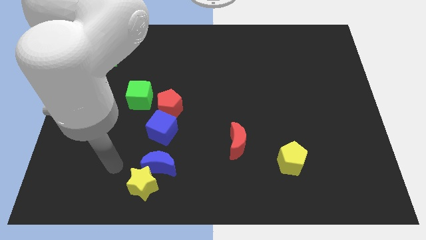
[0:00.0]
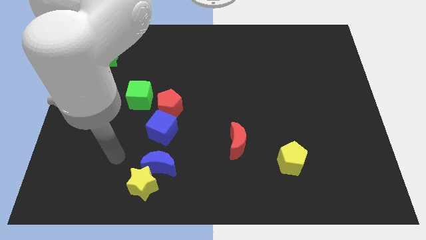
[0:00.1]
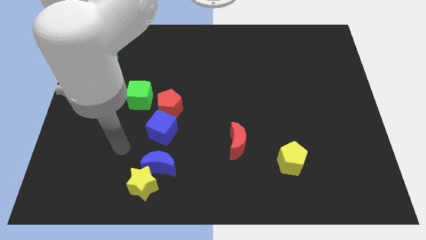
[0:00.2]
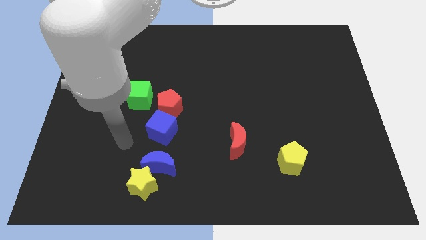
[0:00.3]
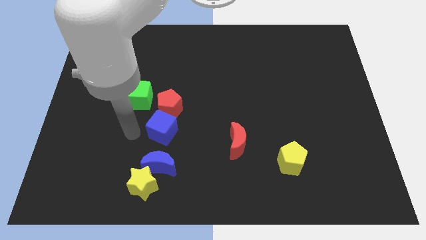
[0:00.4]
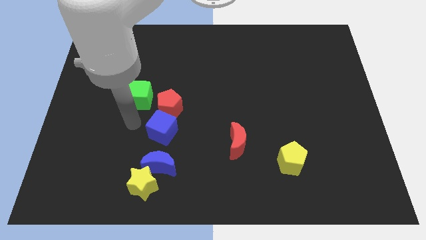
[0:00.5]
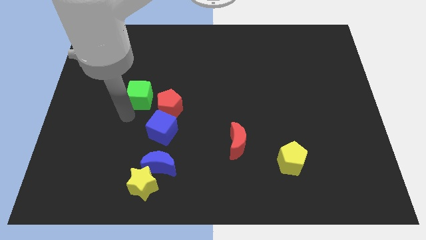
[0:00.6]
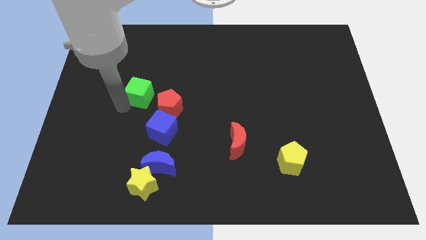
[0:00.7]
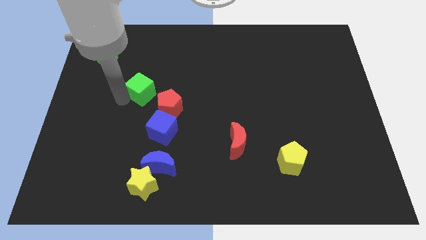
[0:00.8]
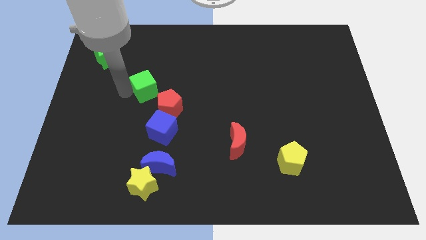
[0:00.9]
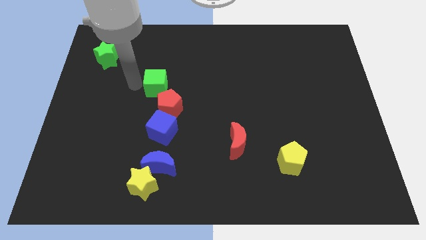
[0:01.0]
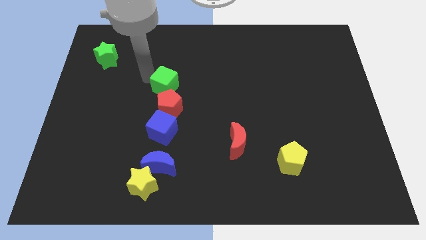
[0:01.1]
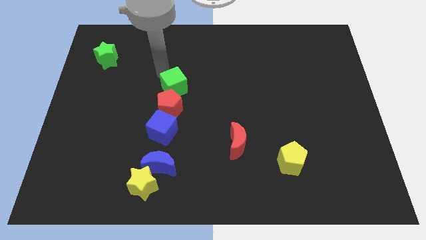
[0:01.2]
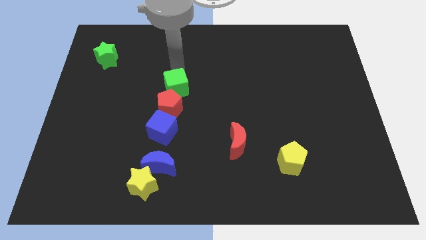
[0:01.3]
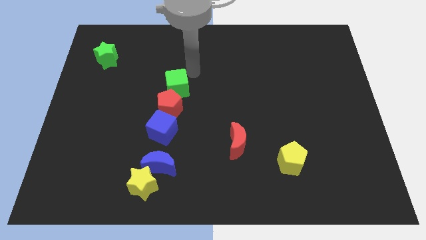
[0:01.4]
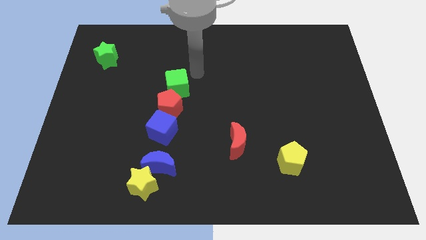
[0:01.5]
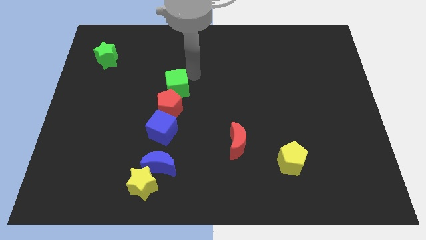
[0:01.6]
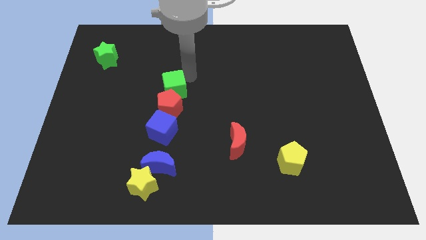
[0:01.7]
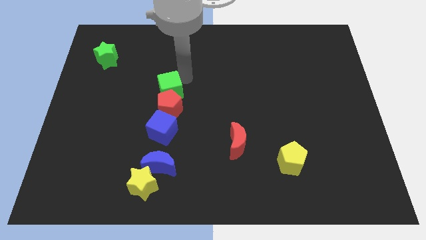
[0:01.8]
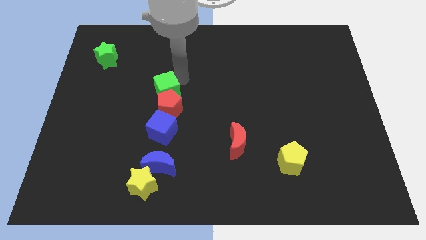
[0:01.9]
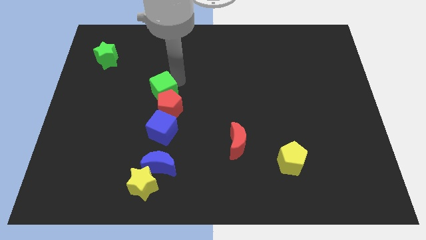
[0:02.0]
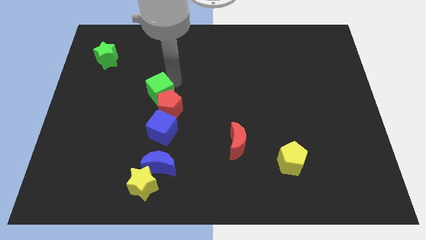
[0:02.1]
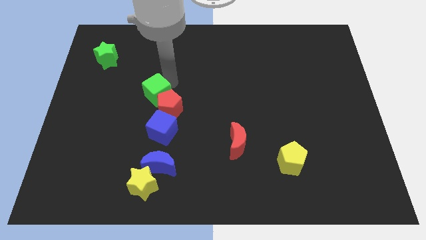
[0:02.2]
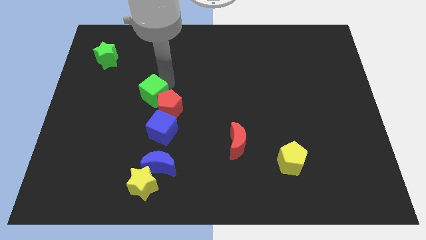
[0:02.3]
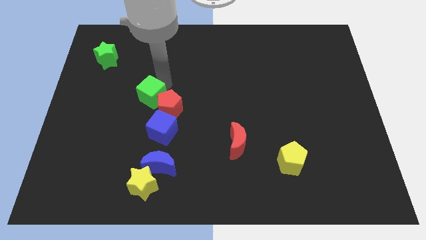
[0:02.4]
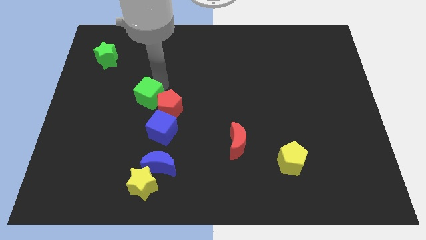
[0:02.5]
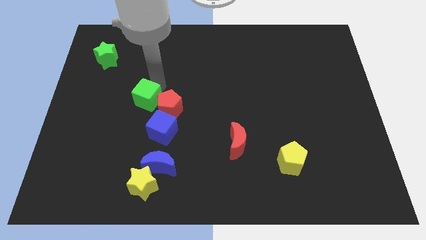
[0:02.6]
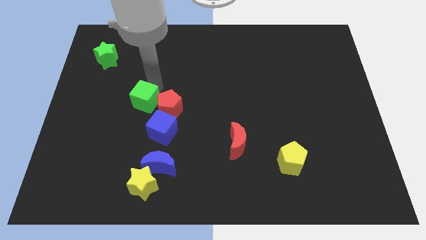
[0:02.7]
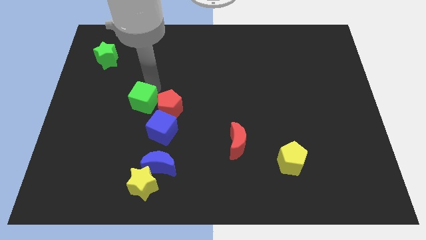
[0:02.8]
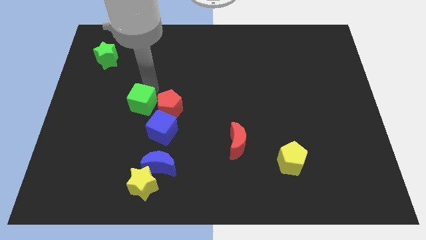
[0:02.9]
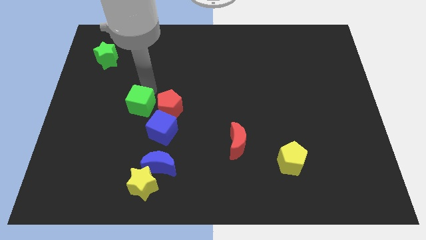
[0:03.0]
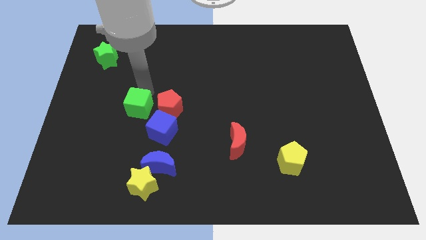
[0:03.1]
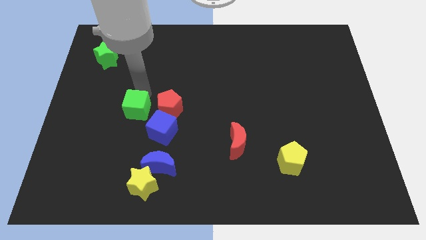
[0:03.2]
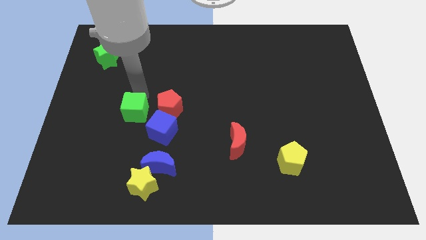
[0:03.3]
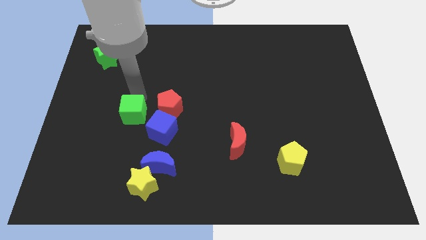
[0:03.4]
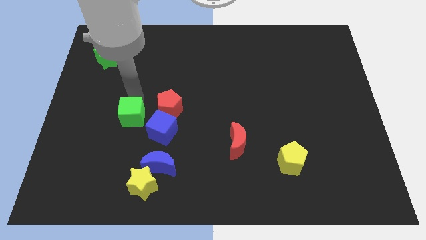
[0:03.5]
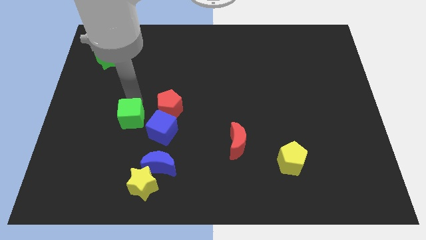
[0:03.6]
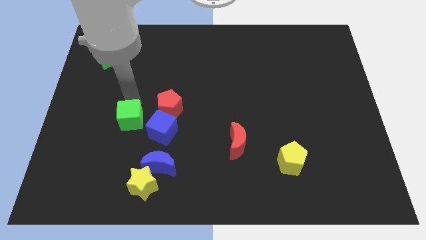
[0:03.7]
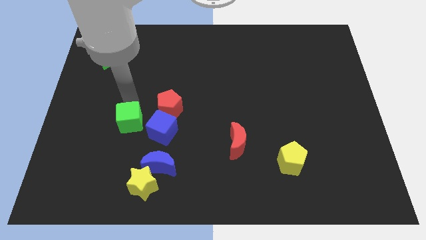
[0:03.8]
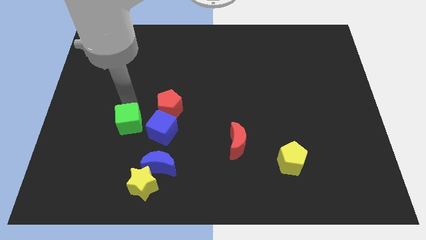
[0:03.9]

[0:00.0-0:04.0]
slightly push the green cube down

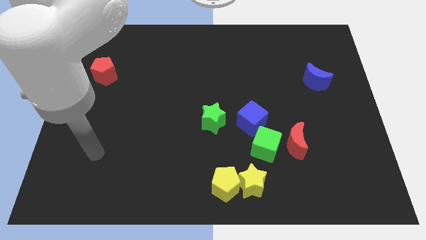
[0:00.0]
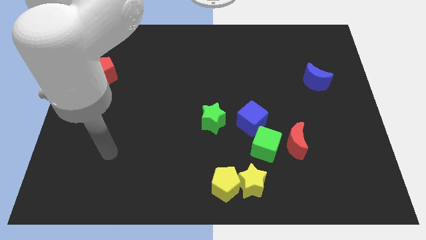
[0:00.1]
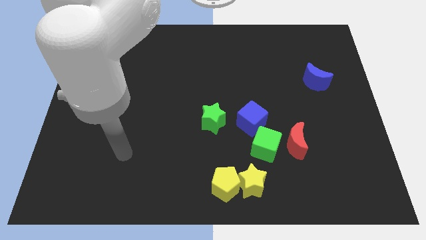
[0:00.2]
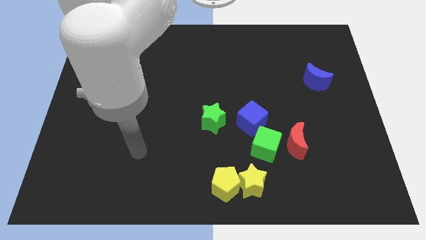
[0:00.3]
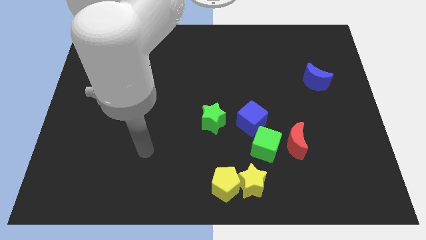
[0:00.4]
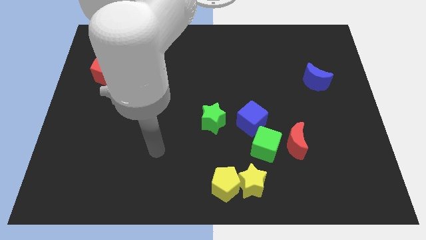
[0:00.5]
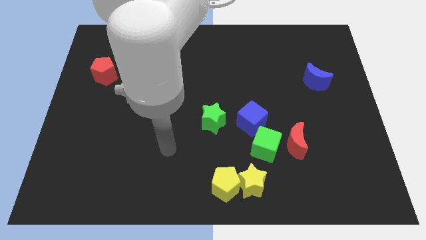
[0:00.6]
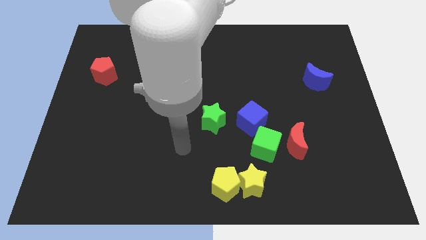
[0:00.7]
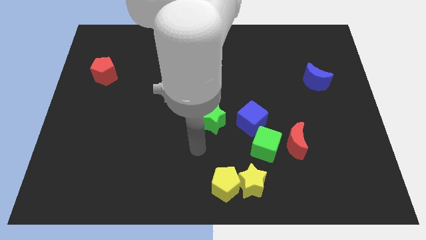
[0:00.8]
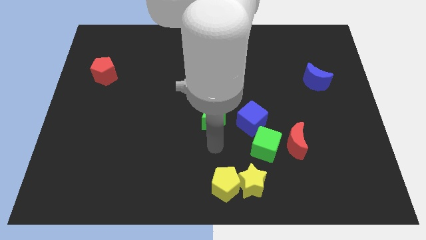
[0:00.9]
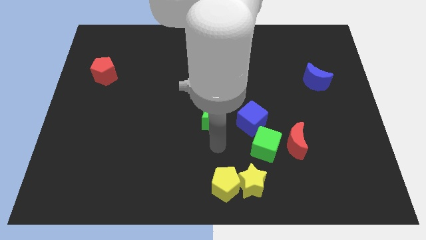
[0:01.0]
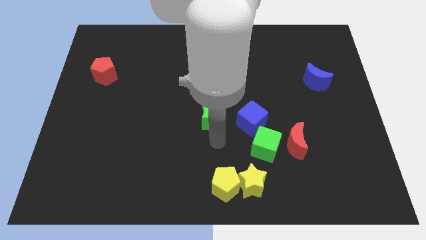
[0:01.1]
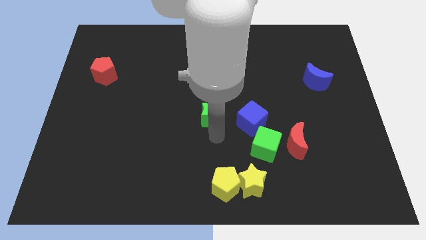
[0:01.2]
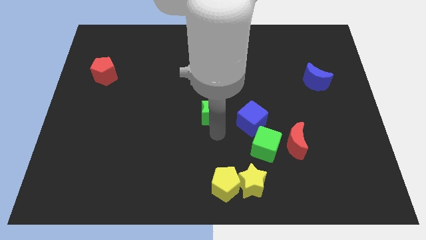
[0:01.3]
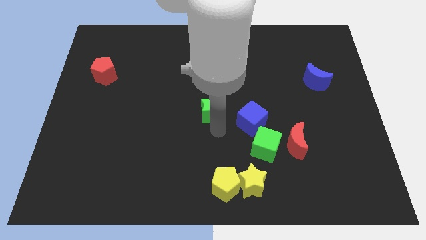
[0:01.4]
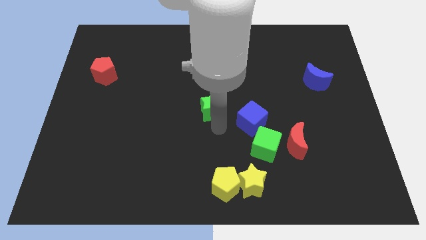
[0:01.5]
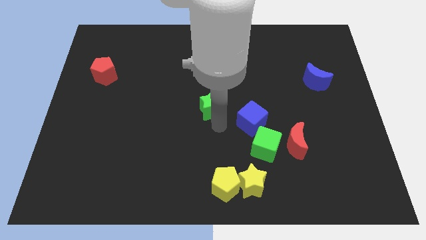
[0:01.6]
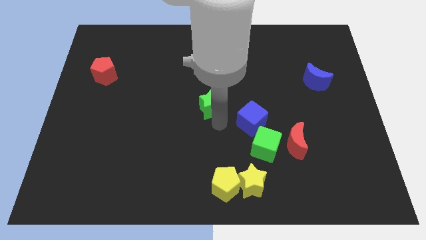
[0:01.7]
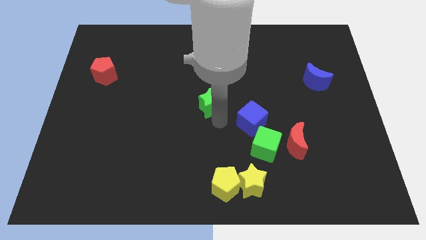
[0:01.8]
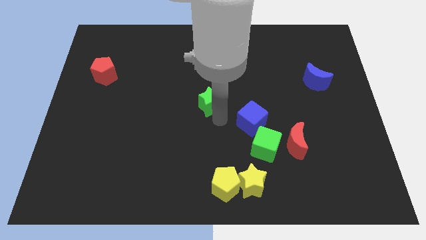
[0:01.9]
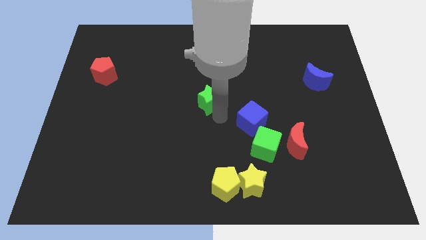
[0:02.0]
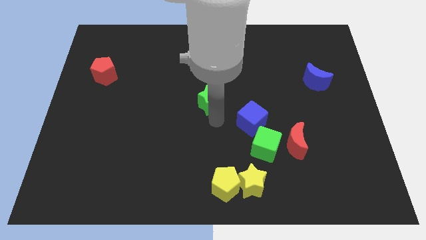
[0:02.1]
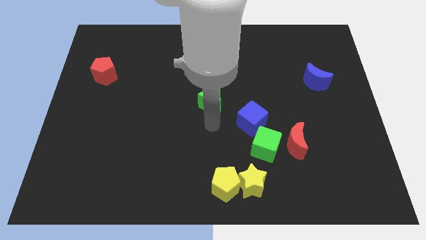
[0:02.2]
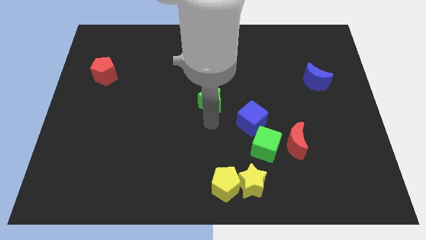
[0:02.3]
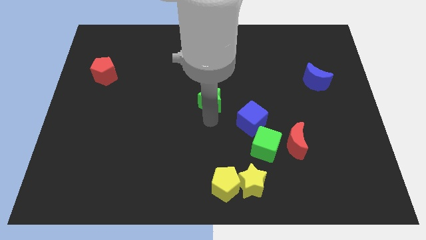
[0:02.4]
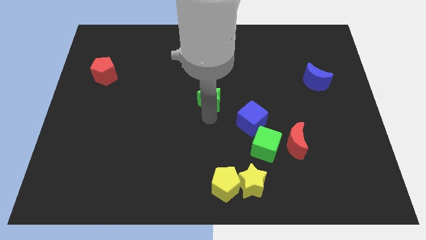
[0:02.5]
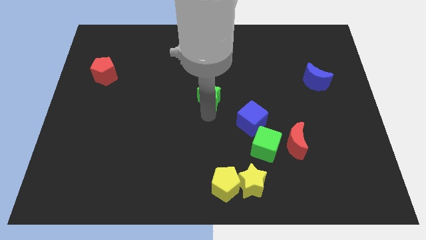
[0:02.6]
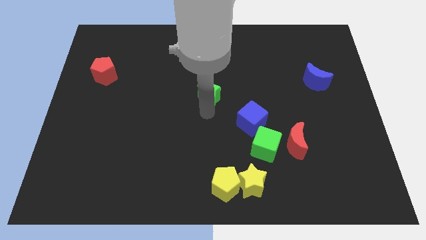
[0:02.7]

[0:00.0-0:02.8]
move the green star a bit up

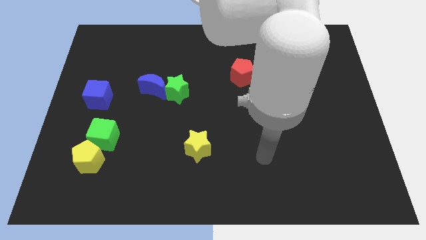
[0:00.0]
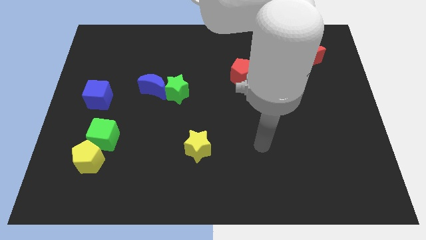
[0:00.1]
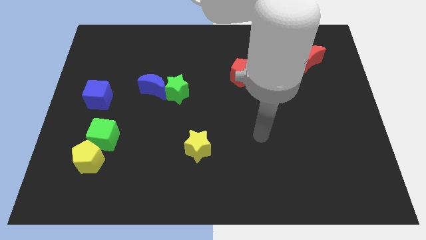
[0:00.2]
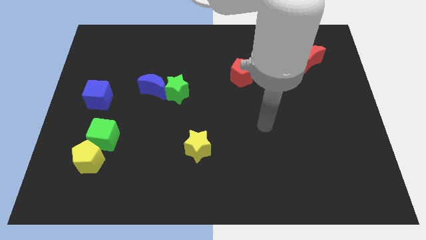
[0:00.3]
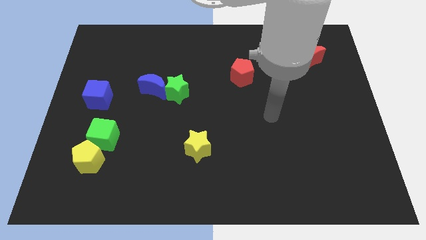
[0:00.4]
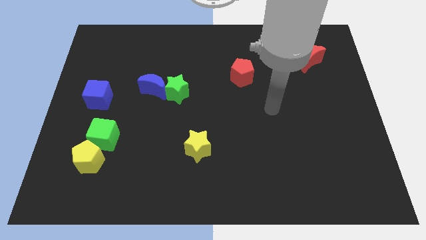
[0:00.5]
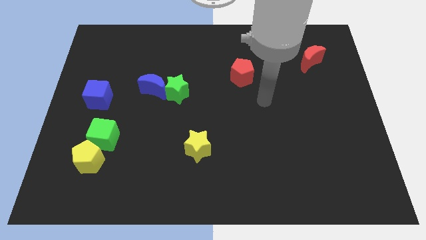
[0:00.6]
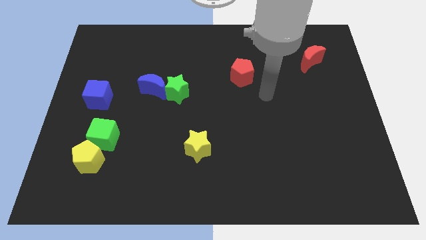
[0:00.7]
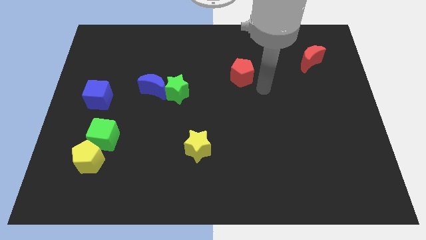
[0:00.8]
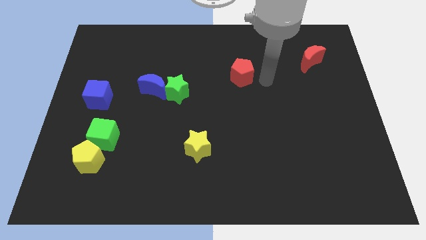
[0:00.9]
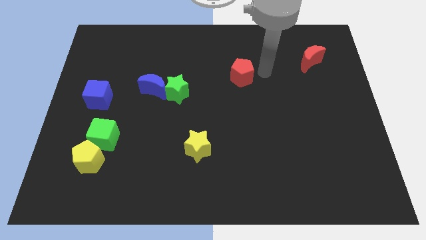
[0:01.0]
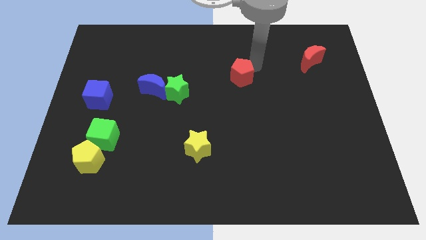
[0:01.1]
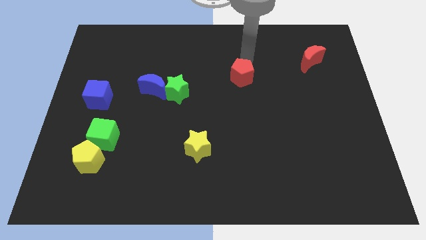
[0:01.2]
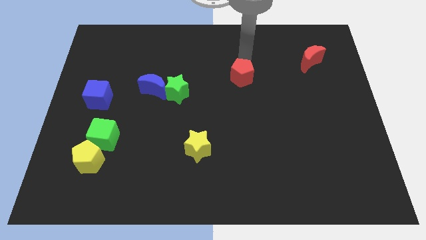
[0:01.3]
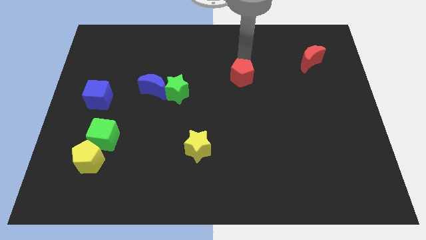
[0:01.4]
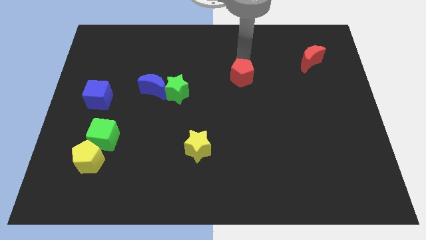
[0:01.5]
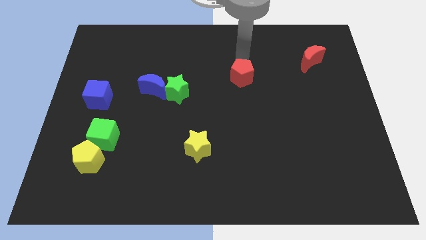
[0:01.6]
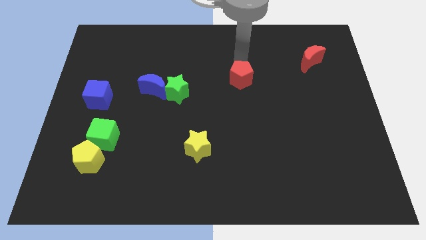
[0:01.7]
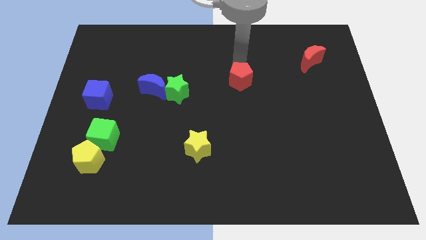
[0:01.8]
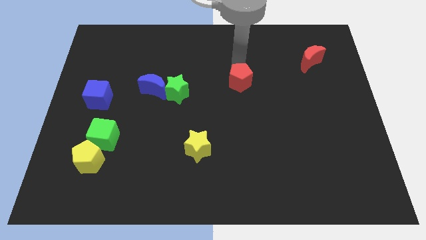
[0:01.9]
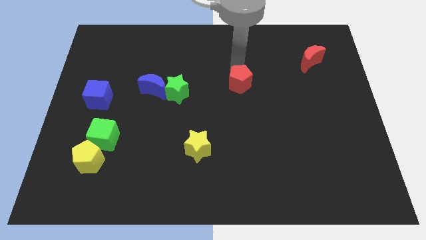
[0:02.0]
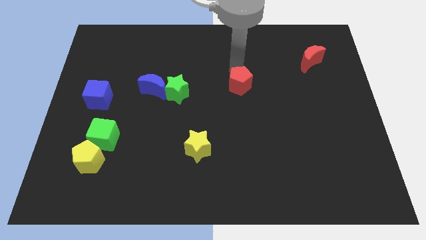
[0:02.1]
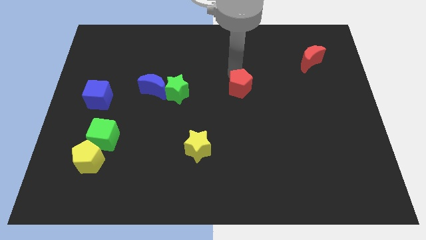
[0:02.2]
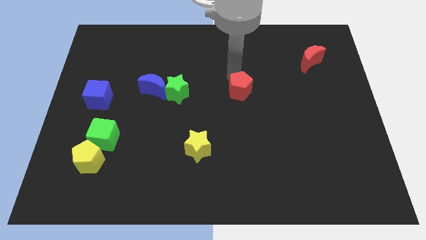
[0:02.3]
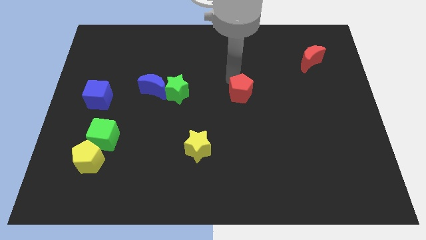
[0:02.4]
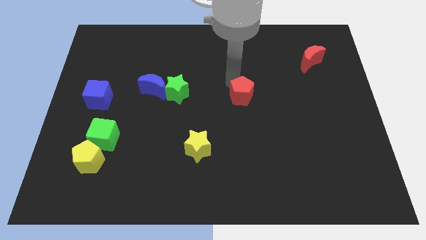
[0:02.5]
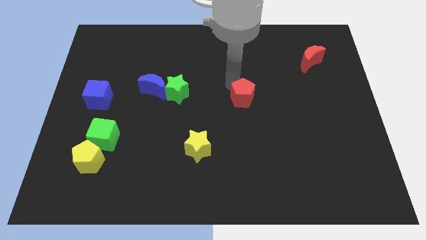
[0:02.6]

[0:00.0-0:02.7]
slide the red pentagon down a little
